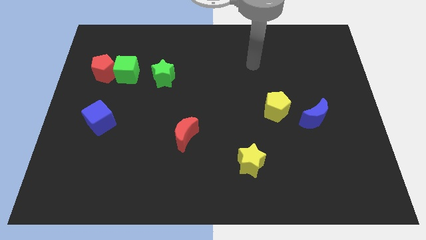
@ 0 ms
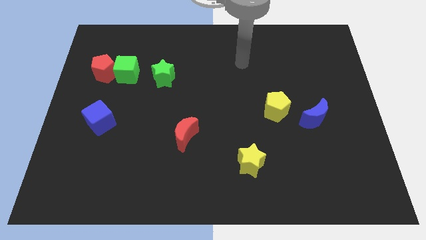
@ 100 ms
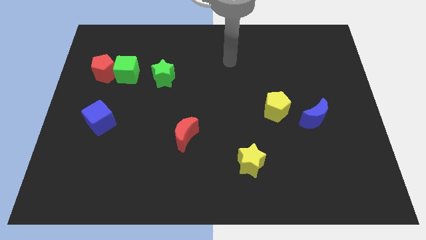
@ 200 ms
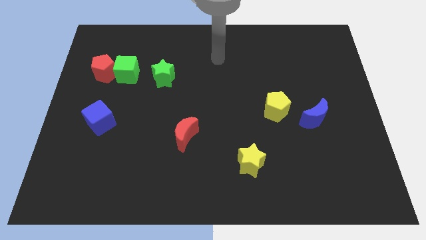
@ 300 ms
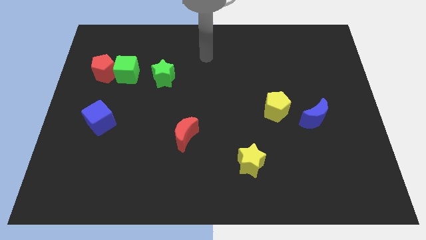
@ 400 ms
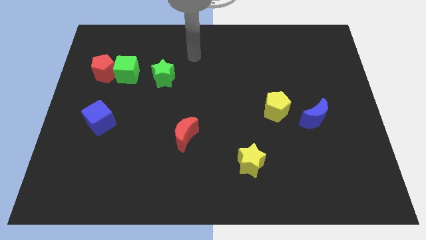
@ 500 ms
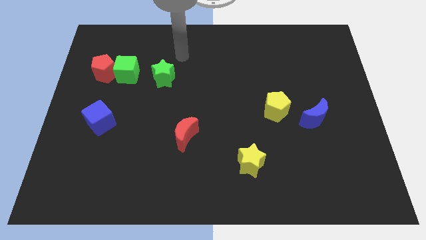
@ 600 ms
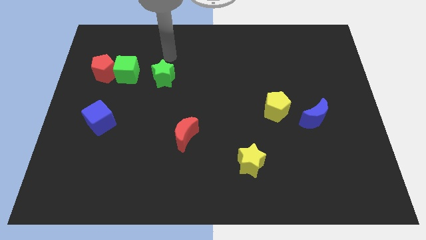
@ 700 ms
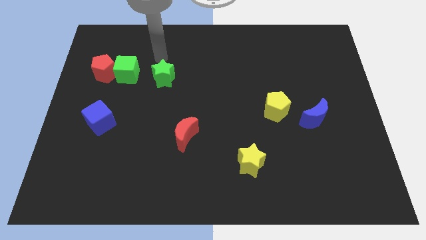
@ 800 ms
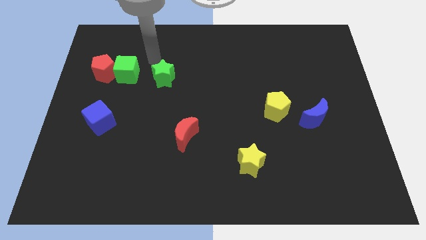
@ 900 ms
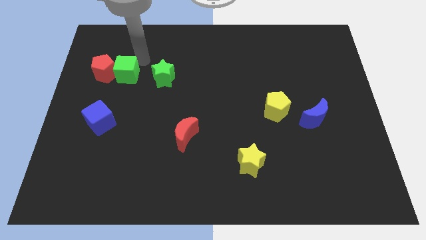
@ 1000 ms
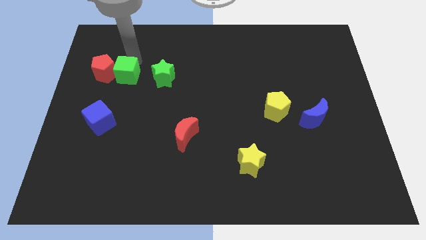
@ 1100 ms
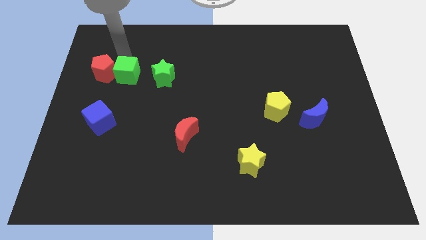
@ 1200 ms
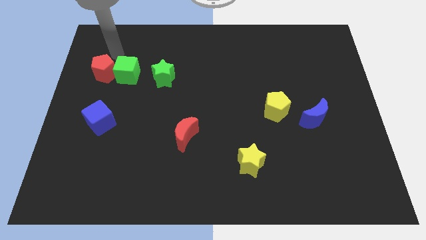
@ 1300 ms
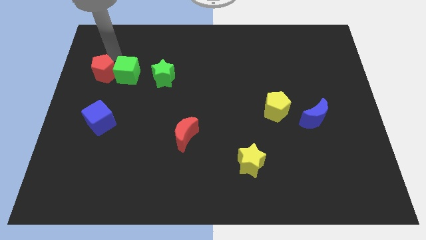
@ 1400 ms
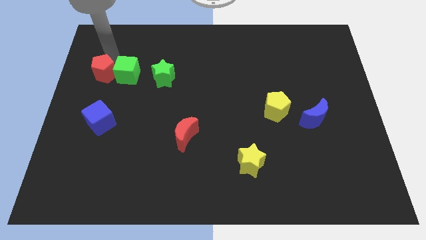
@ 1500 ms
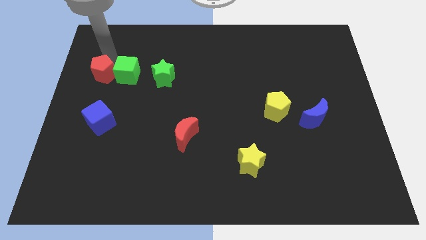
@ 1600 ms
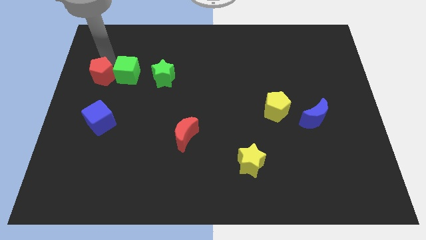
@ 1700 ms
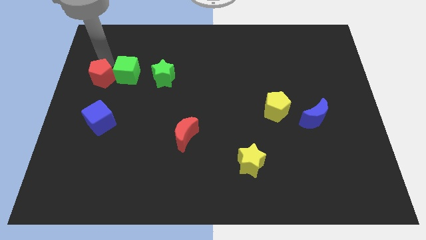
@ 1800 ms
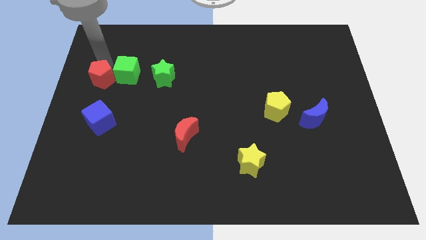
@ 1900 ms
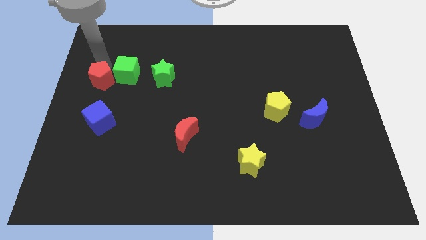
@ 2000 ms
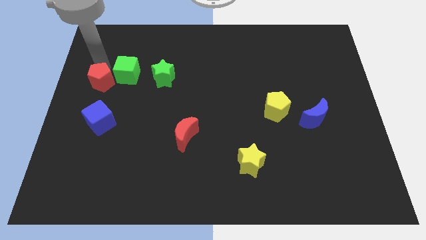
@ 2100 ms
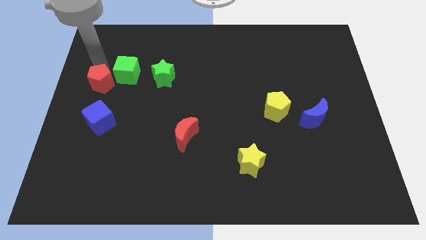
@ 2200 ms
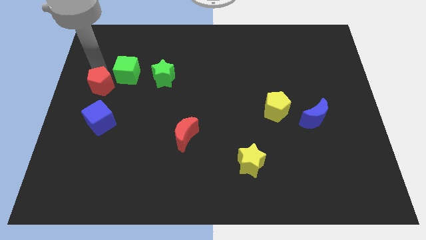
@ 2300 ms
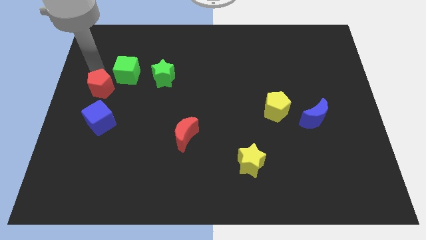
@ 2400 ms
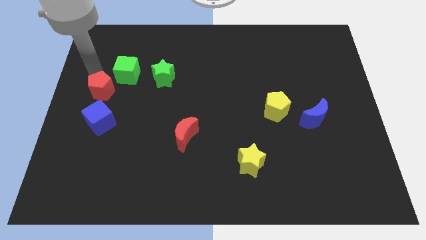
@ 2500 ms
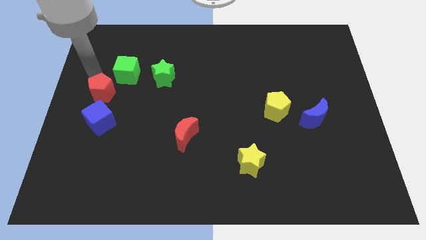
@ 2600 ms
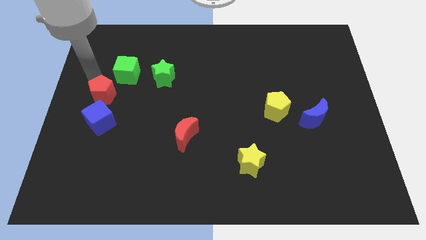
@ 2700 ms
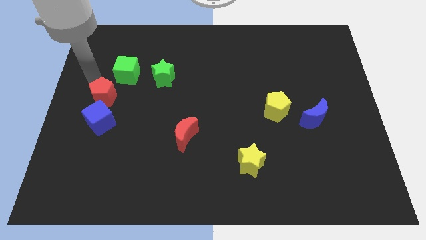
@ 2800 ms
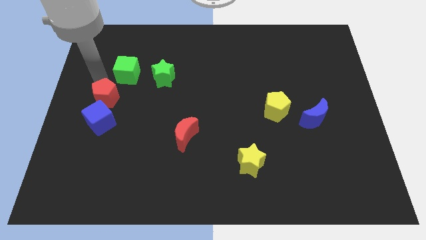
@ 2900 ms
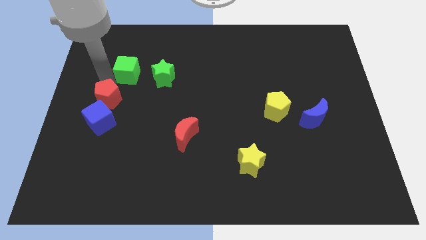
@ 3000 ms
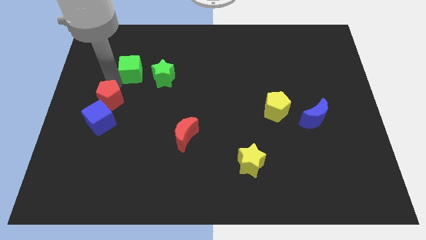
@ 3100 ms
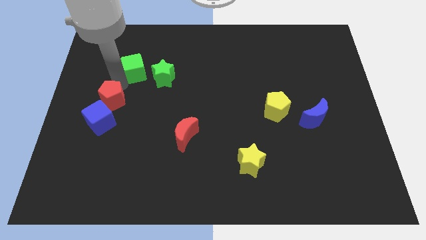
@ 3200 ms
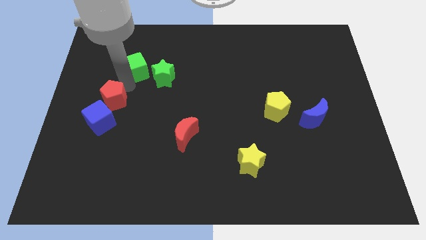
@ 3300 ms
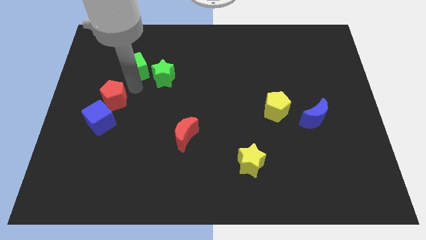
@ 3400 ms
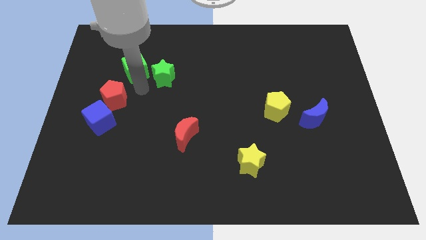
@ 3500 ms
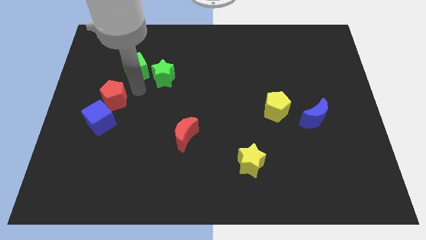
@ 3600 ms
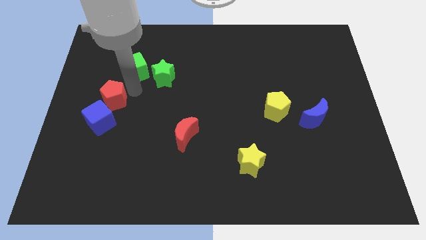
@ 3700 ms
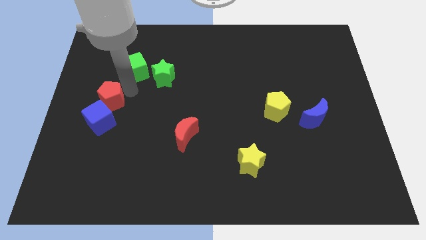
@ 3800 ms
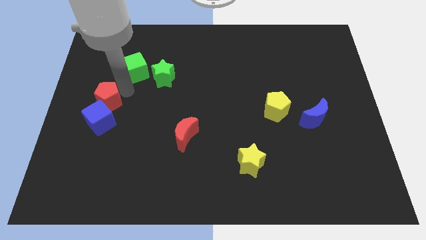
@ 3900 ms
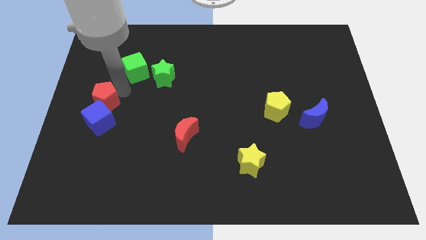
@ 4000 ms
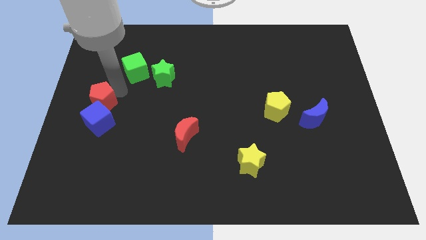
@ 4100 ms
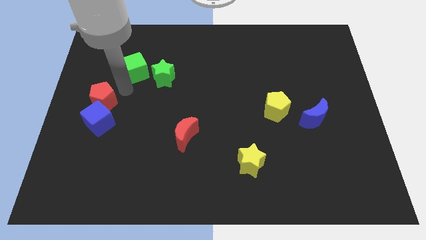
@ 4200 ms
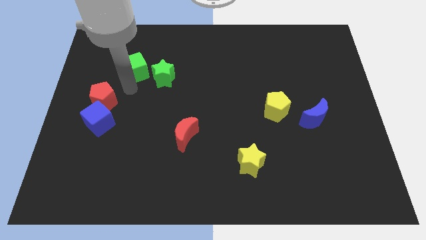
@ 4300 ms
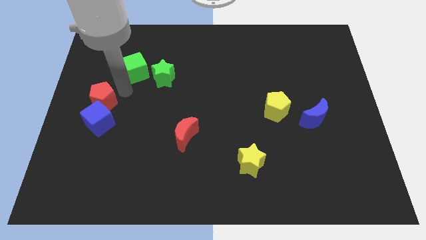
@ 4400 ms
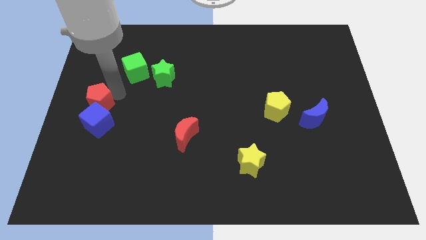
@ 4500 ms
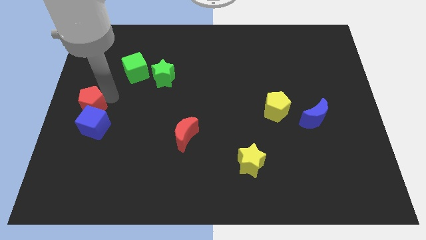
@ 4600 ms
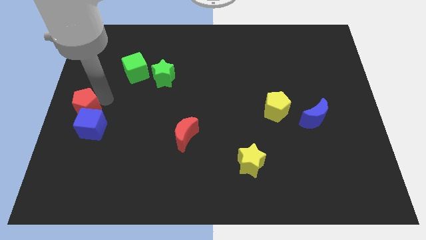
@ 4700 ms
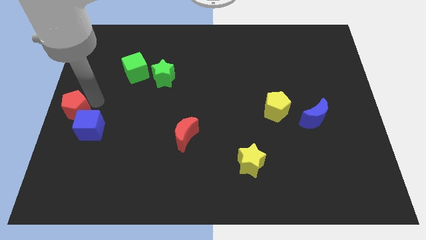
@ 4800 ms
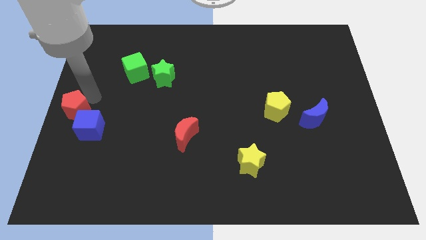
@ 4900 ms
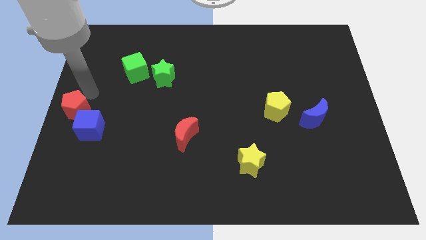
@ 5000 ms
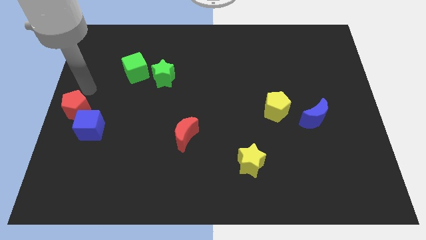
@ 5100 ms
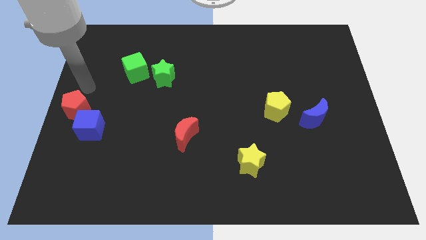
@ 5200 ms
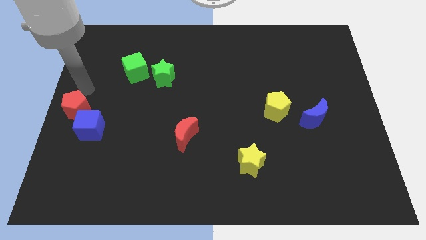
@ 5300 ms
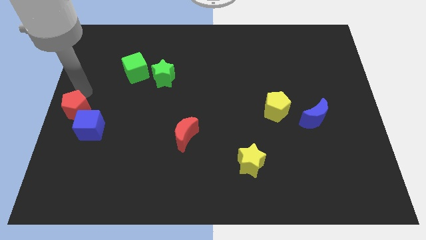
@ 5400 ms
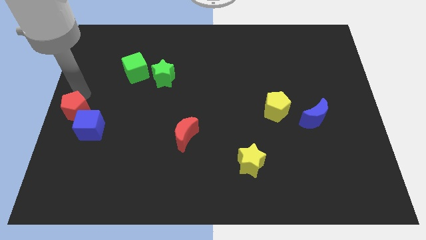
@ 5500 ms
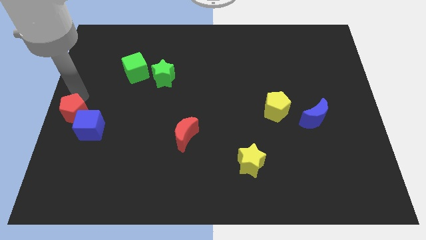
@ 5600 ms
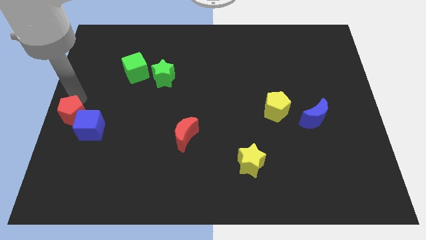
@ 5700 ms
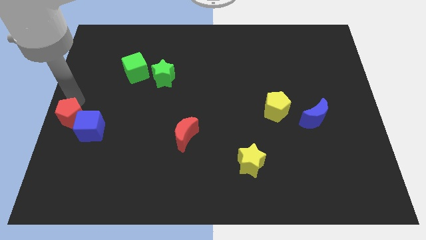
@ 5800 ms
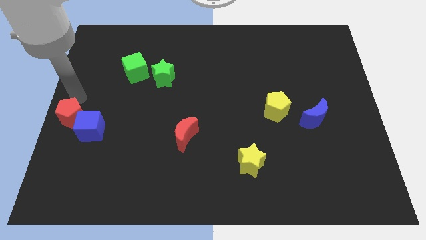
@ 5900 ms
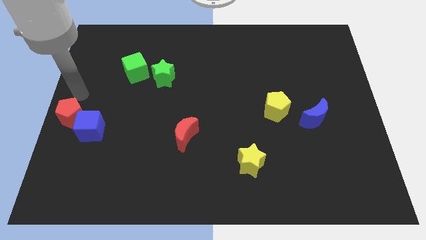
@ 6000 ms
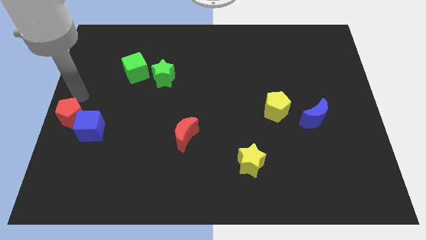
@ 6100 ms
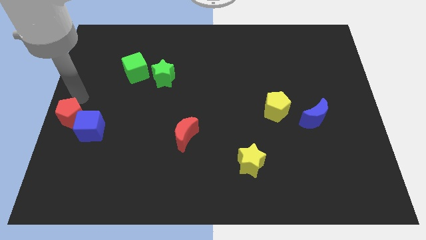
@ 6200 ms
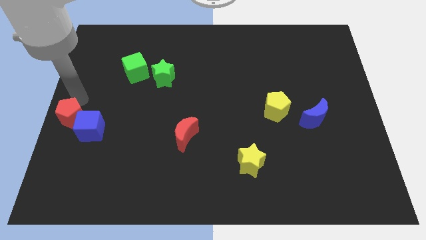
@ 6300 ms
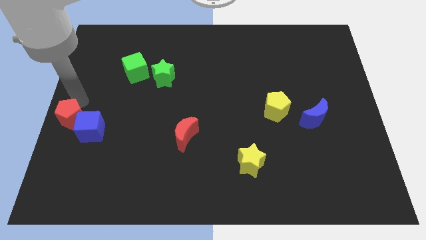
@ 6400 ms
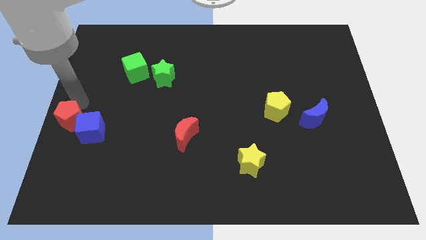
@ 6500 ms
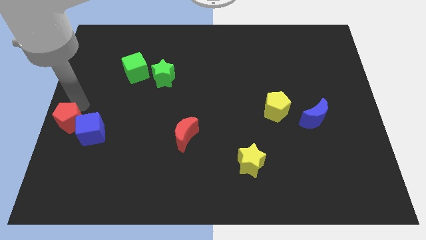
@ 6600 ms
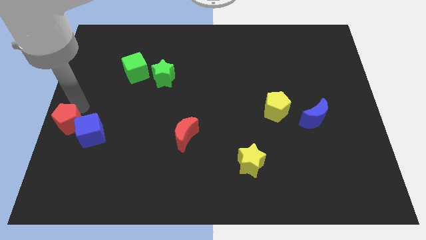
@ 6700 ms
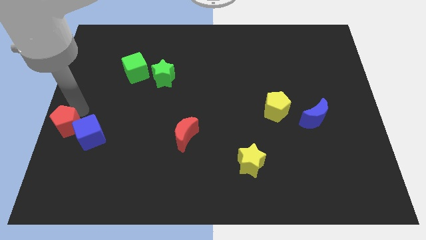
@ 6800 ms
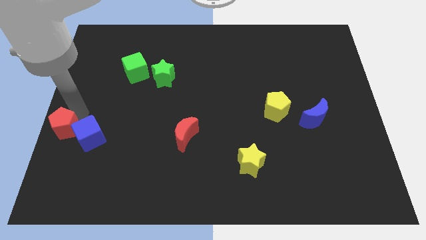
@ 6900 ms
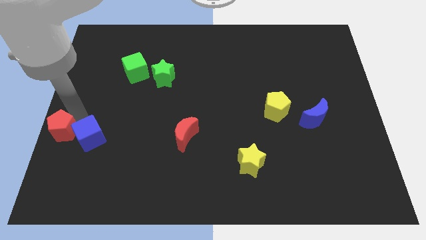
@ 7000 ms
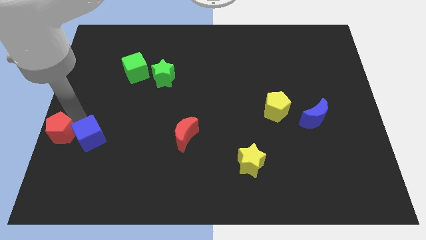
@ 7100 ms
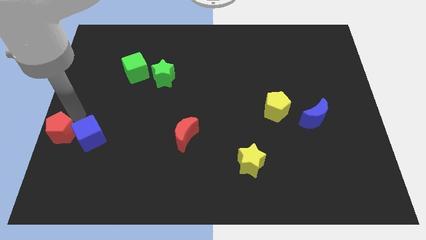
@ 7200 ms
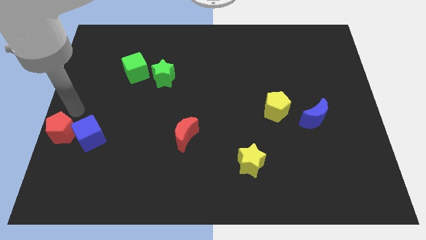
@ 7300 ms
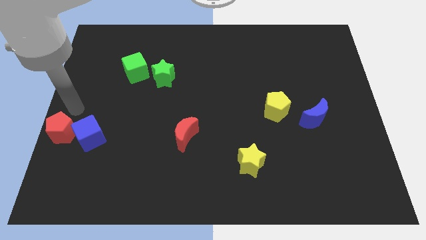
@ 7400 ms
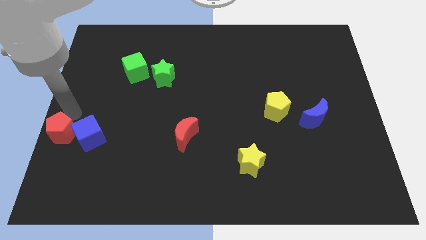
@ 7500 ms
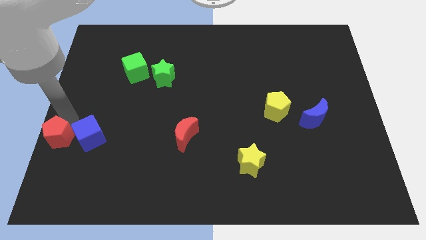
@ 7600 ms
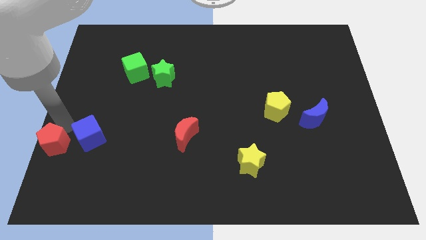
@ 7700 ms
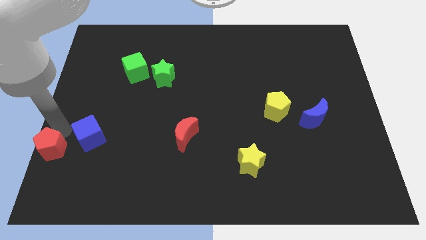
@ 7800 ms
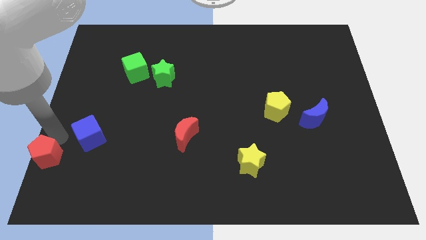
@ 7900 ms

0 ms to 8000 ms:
push the red pentagon to the bottom left corner
